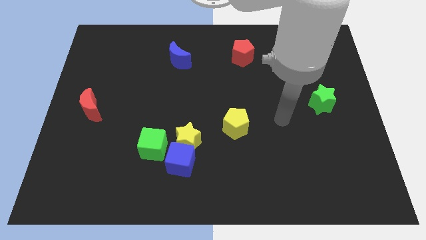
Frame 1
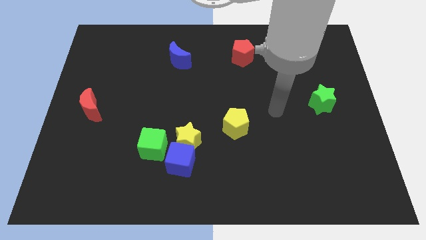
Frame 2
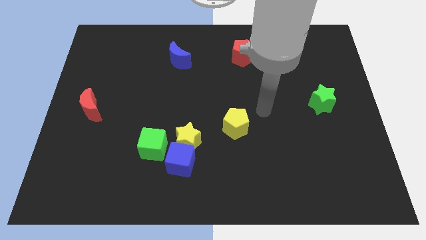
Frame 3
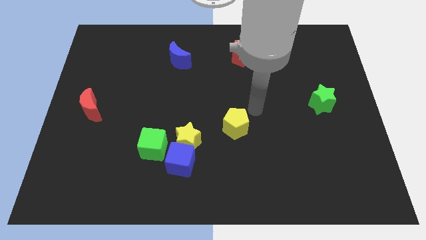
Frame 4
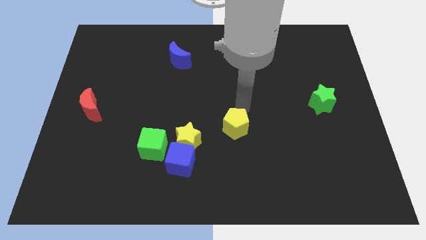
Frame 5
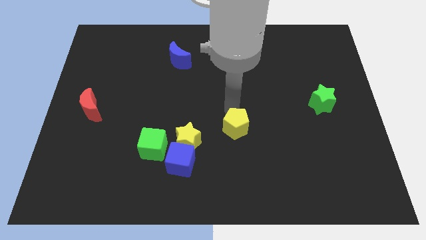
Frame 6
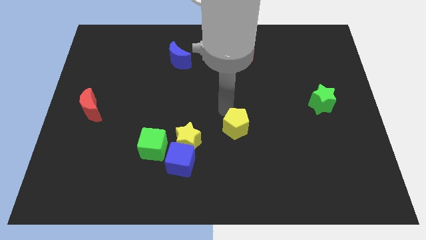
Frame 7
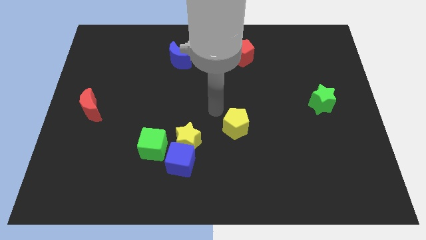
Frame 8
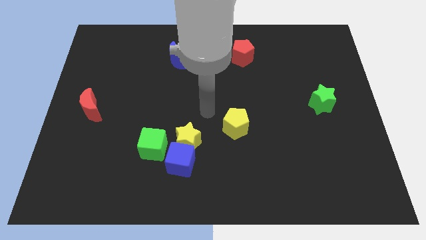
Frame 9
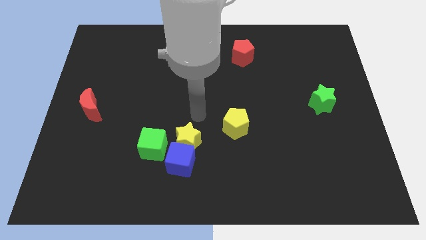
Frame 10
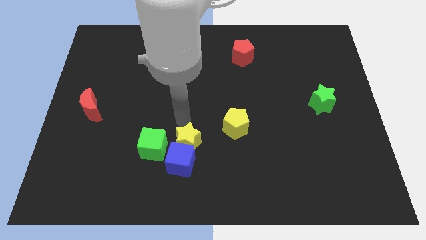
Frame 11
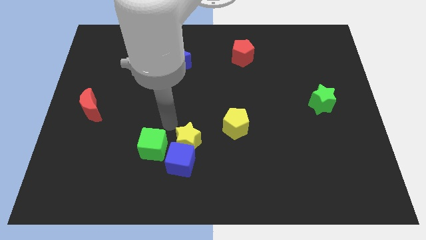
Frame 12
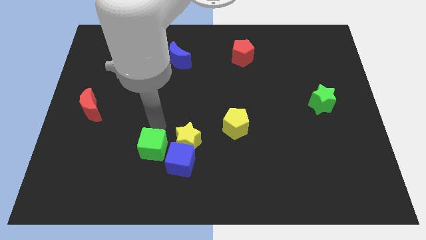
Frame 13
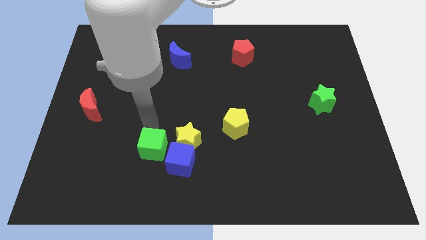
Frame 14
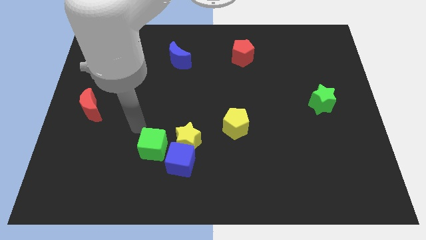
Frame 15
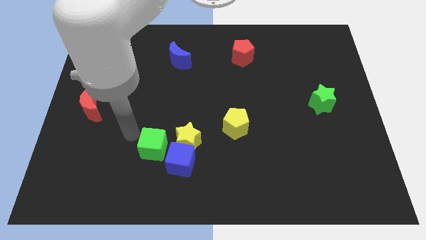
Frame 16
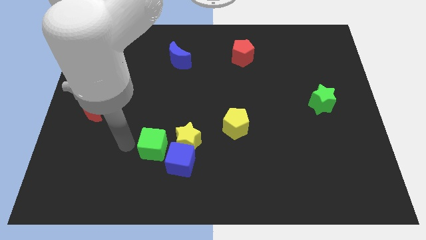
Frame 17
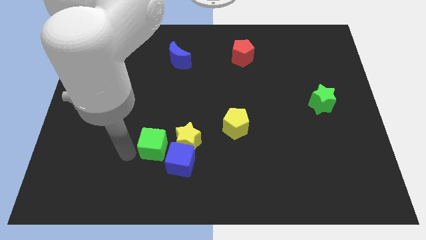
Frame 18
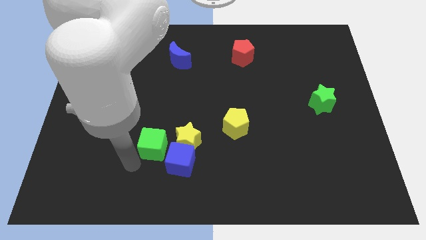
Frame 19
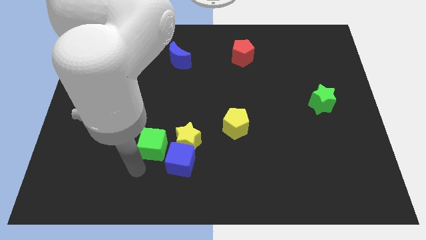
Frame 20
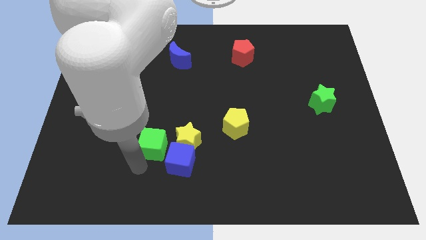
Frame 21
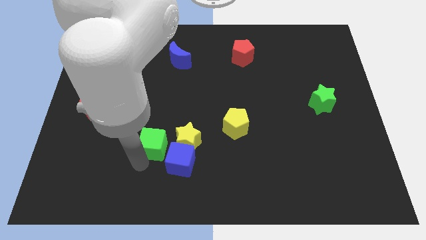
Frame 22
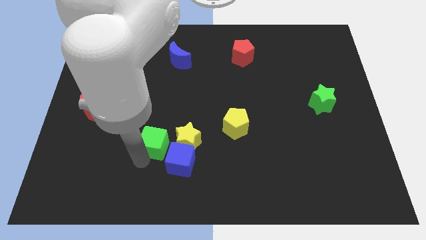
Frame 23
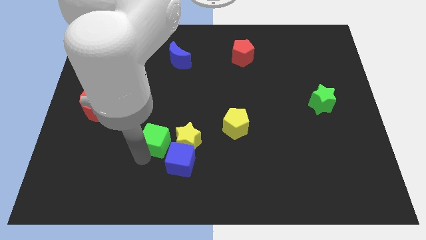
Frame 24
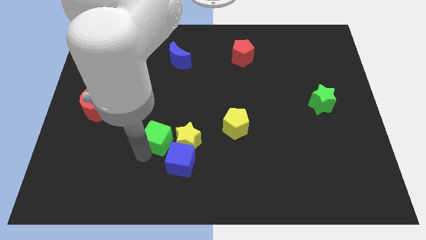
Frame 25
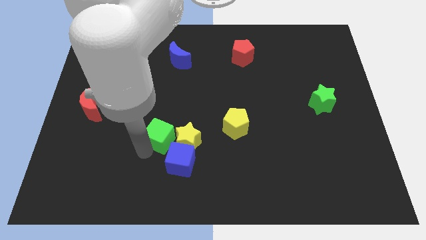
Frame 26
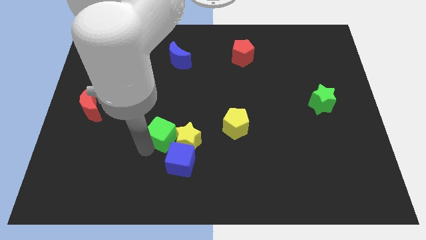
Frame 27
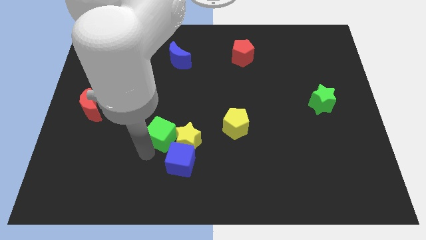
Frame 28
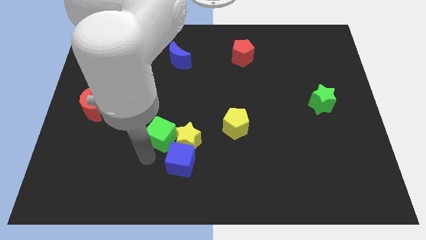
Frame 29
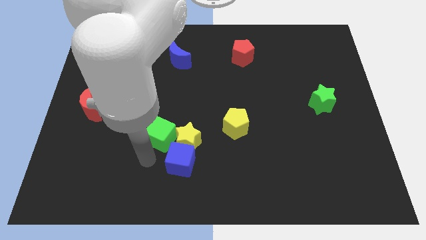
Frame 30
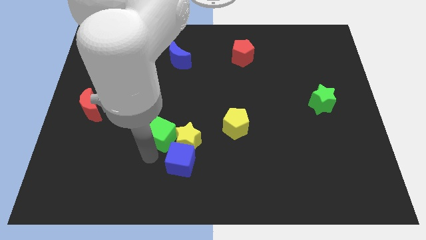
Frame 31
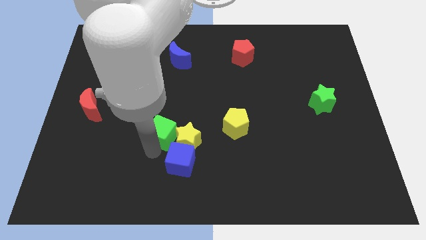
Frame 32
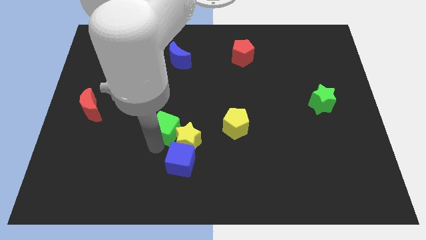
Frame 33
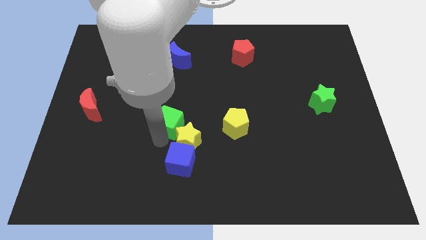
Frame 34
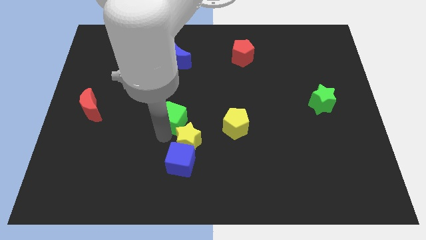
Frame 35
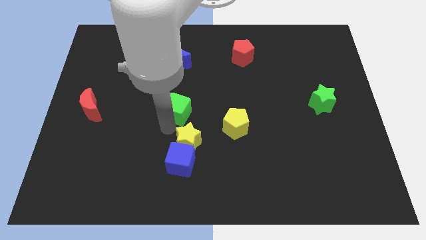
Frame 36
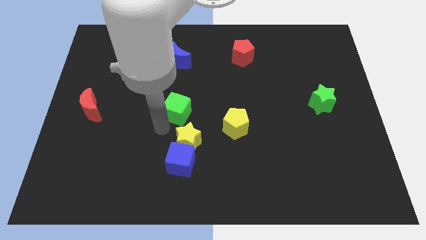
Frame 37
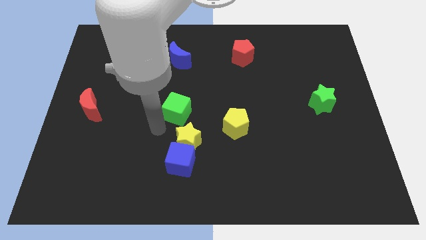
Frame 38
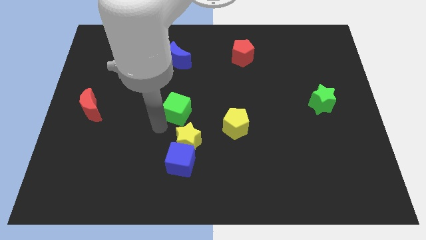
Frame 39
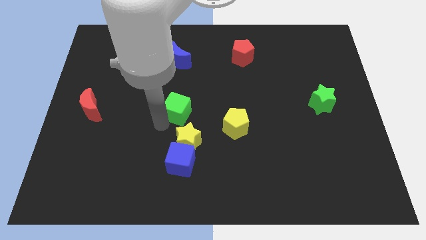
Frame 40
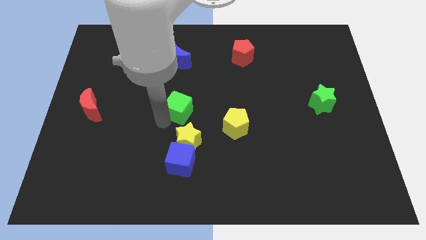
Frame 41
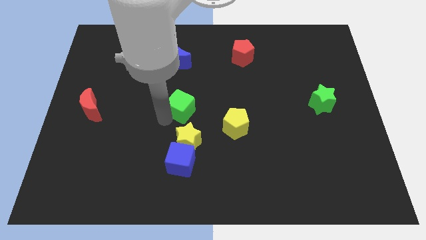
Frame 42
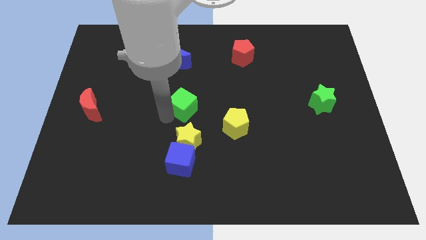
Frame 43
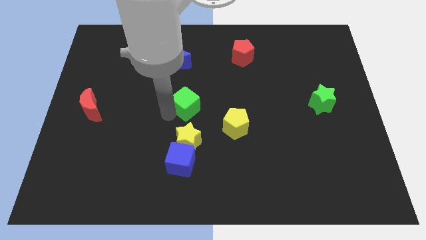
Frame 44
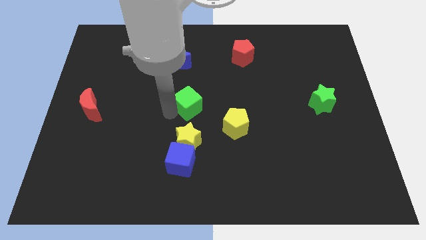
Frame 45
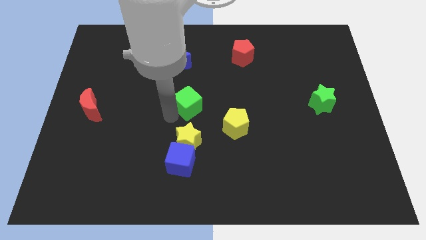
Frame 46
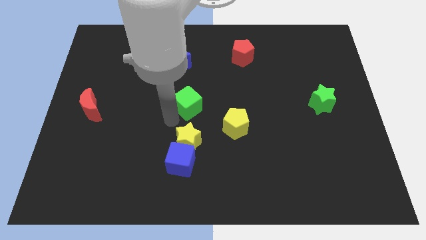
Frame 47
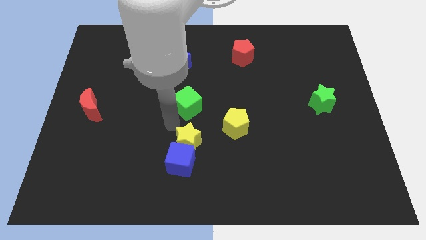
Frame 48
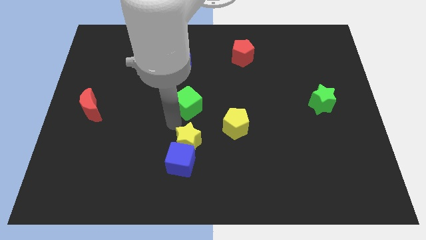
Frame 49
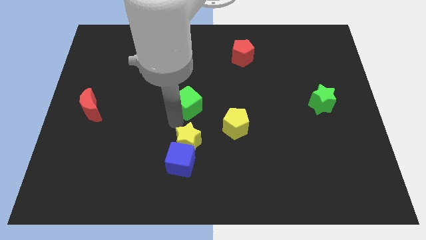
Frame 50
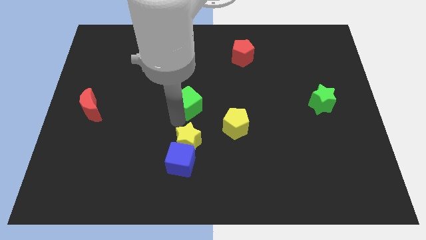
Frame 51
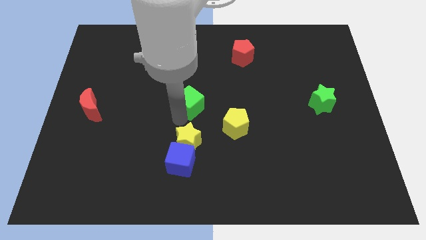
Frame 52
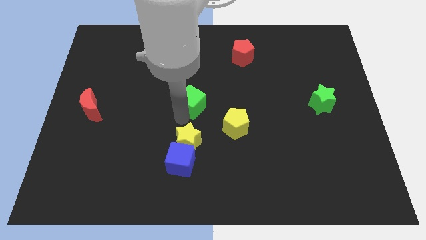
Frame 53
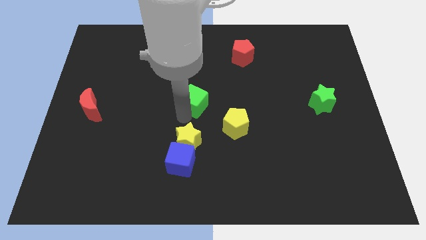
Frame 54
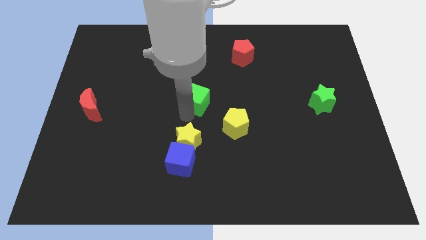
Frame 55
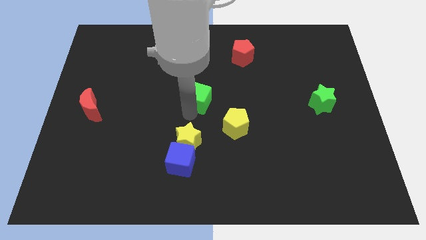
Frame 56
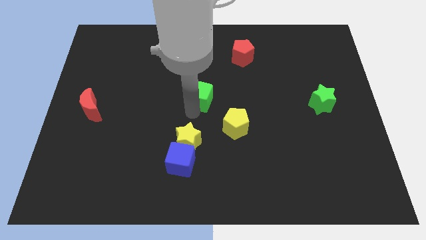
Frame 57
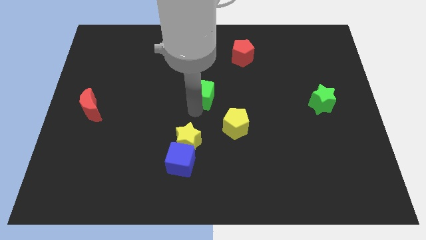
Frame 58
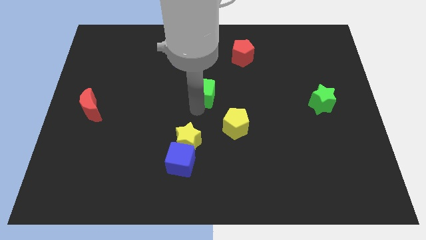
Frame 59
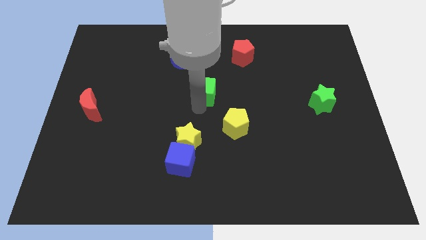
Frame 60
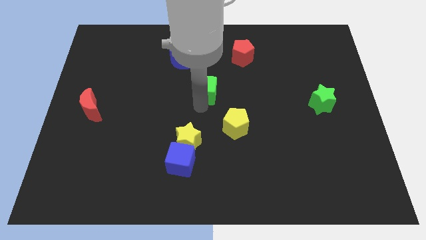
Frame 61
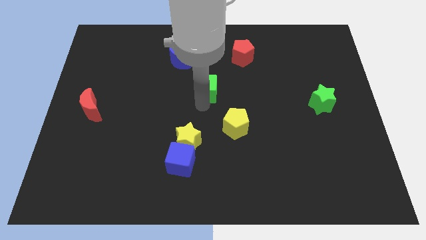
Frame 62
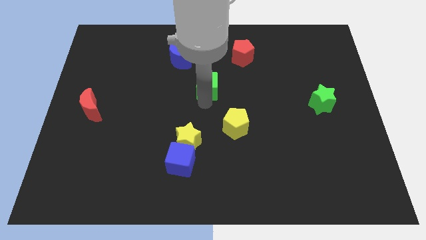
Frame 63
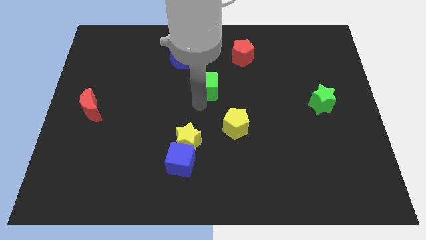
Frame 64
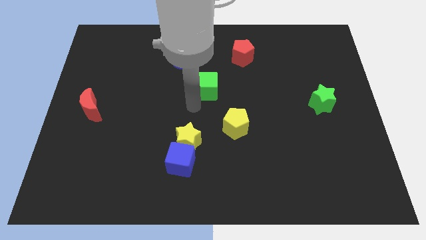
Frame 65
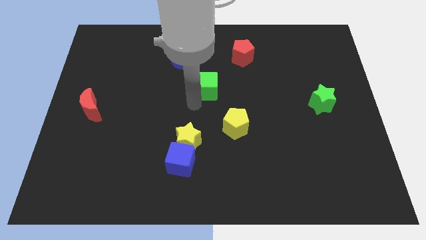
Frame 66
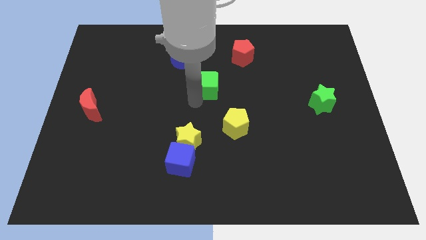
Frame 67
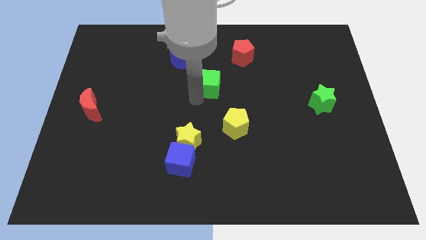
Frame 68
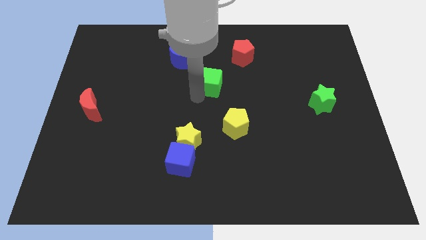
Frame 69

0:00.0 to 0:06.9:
put the green cube to the bottom left side of the red pentagon
